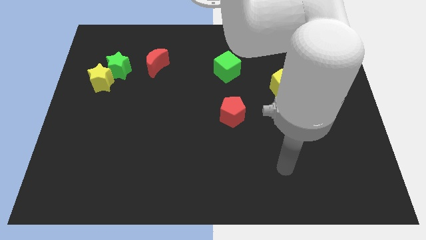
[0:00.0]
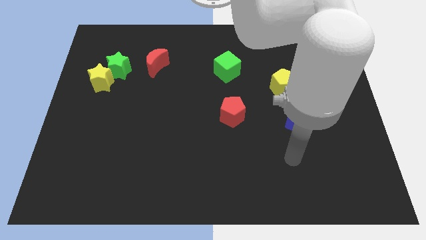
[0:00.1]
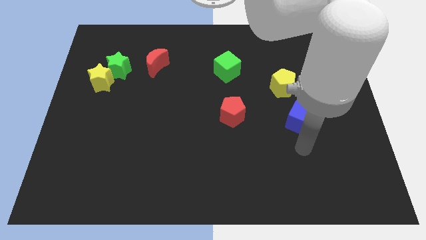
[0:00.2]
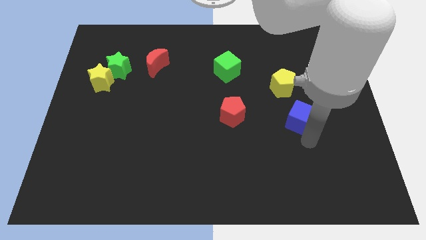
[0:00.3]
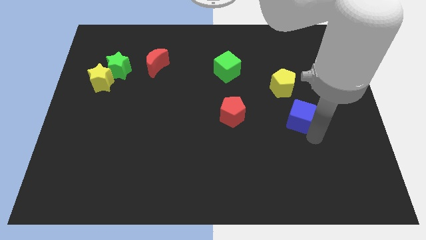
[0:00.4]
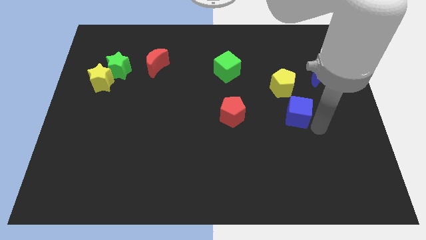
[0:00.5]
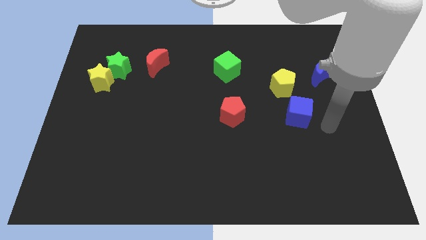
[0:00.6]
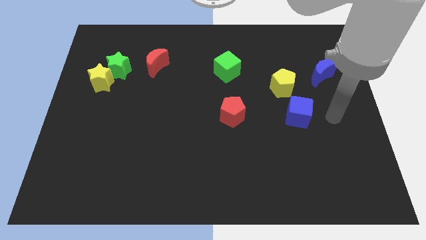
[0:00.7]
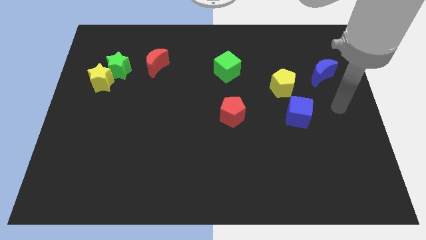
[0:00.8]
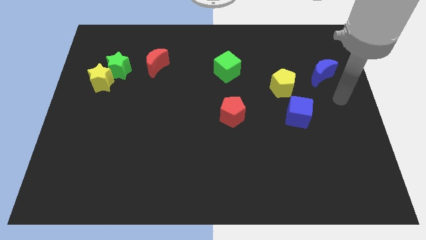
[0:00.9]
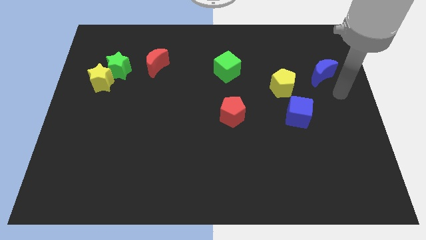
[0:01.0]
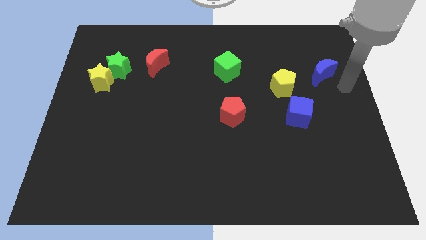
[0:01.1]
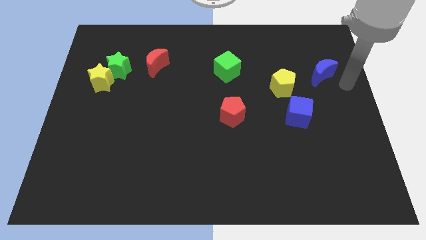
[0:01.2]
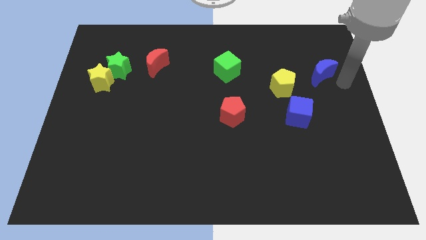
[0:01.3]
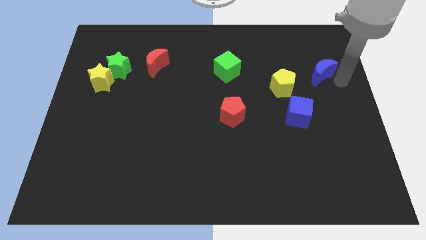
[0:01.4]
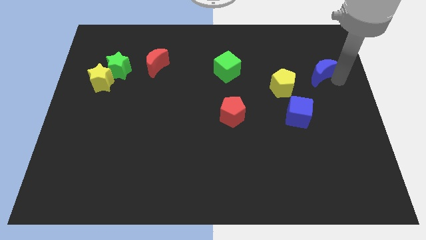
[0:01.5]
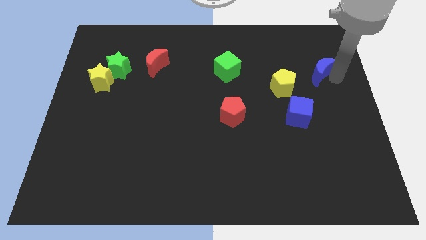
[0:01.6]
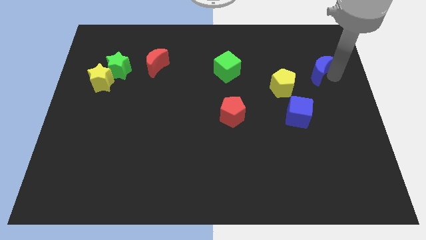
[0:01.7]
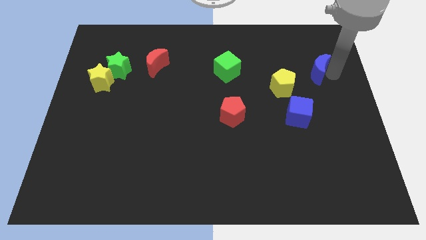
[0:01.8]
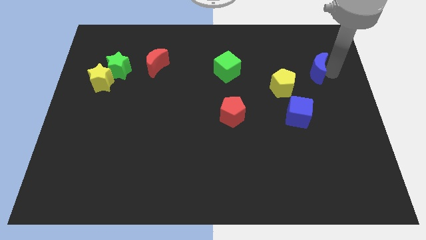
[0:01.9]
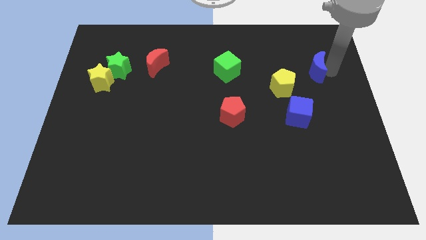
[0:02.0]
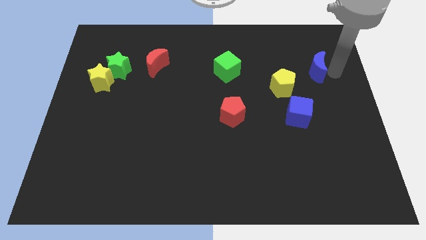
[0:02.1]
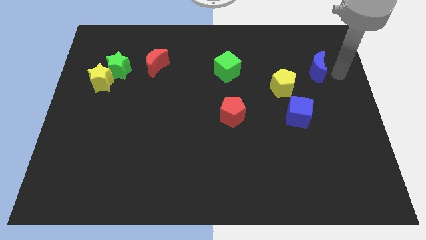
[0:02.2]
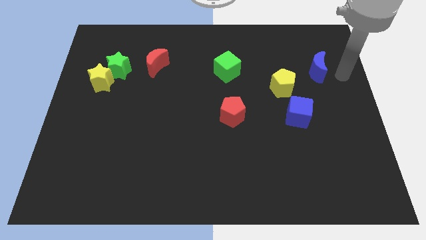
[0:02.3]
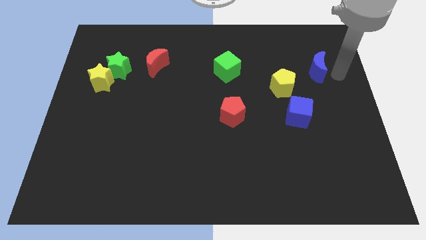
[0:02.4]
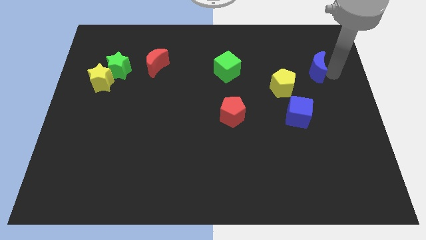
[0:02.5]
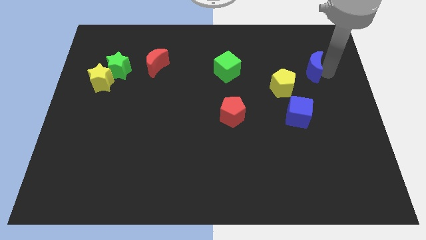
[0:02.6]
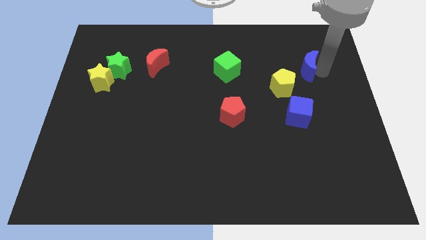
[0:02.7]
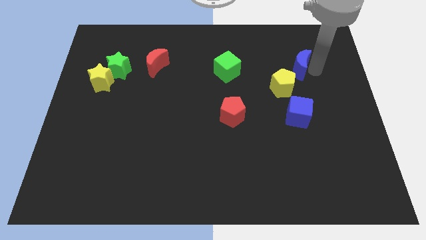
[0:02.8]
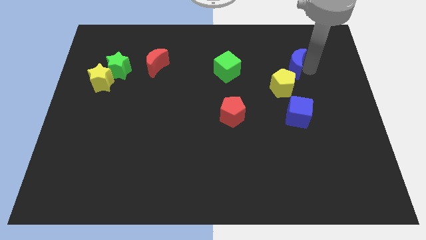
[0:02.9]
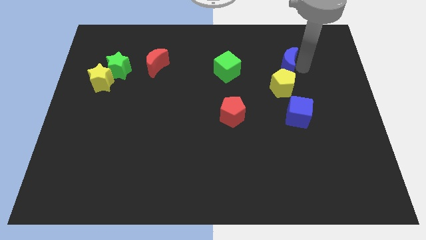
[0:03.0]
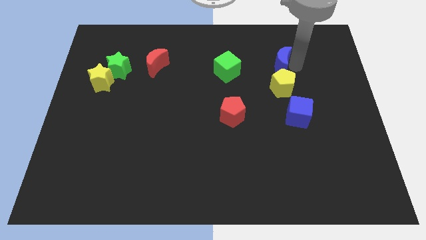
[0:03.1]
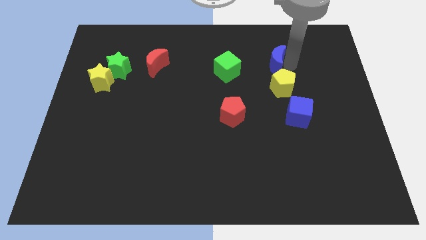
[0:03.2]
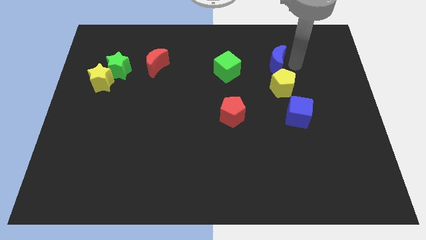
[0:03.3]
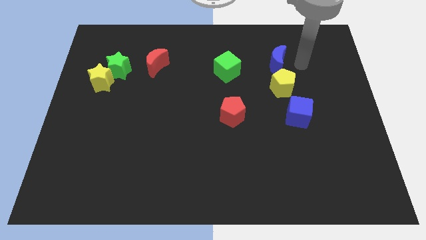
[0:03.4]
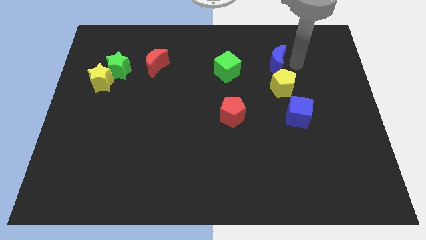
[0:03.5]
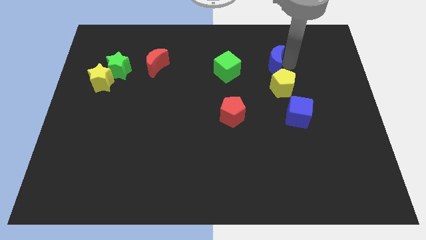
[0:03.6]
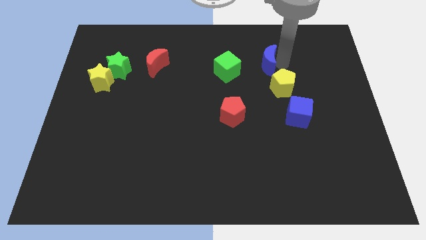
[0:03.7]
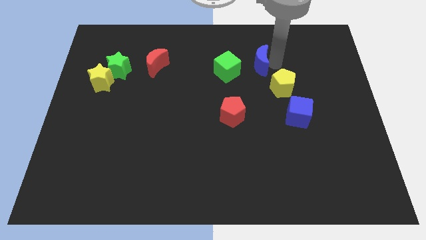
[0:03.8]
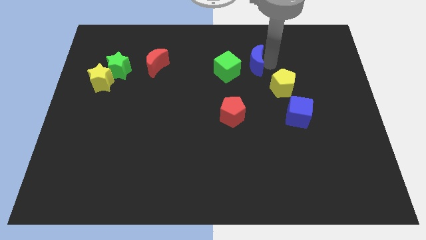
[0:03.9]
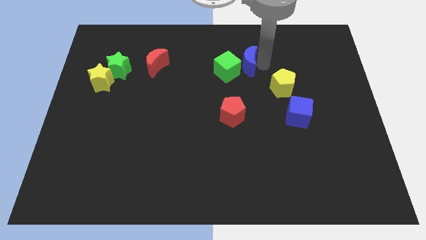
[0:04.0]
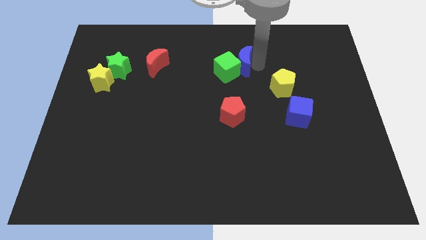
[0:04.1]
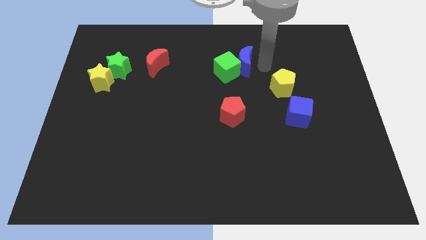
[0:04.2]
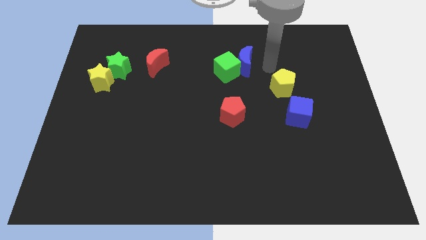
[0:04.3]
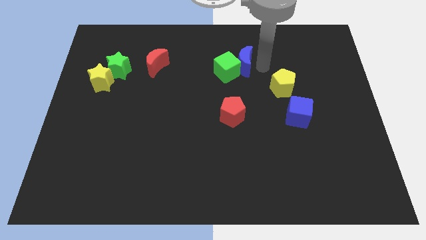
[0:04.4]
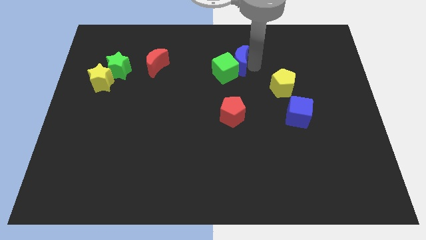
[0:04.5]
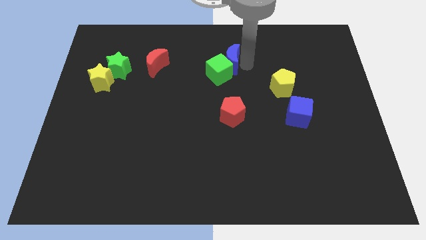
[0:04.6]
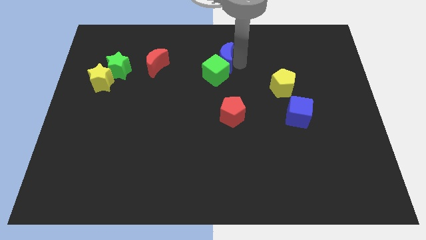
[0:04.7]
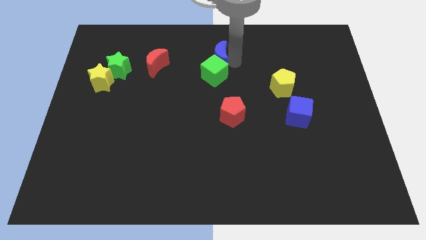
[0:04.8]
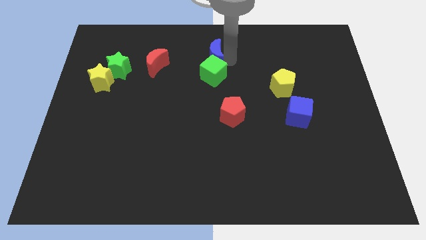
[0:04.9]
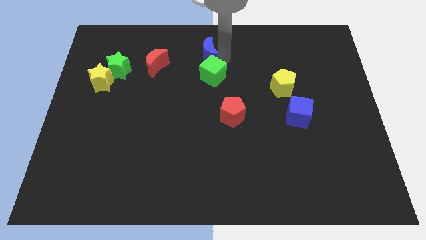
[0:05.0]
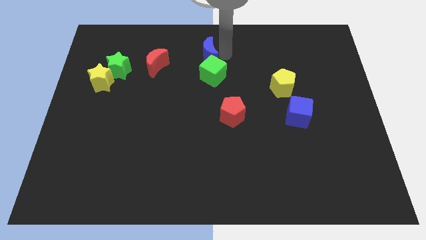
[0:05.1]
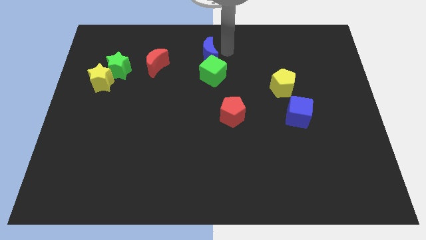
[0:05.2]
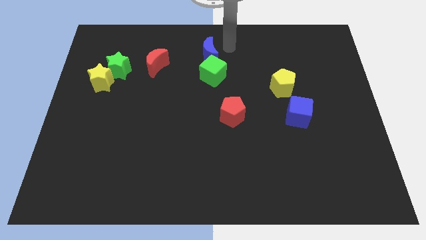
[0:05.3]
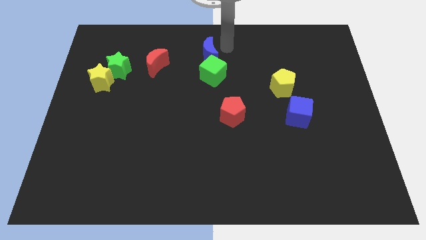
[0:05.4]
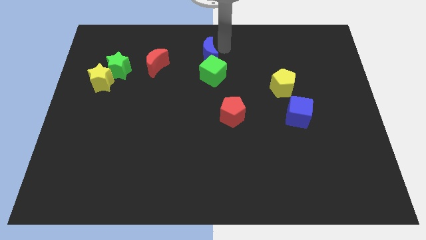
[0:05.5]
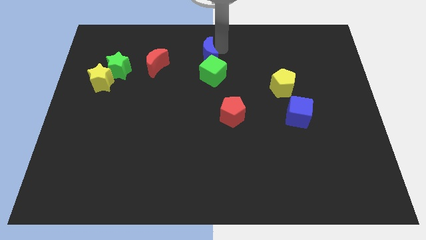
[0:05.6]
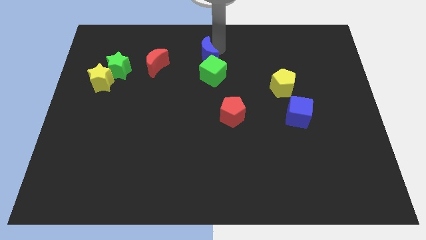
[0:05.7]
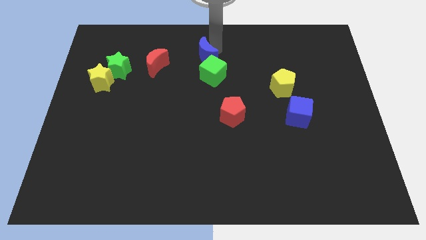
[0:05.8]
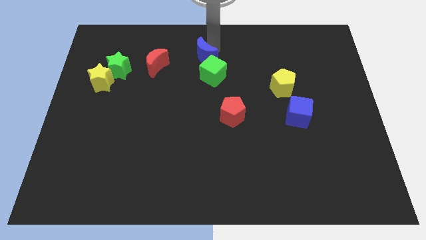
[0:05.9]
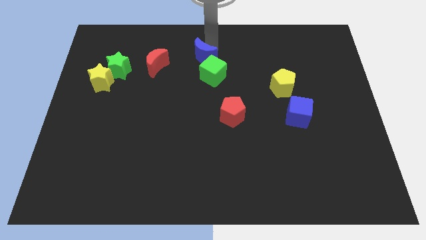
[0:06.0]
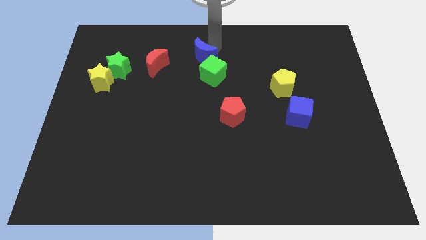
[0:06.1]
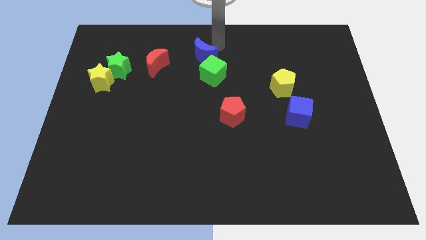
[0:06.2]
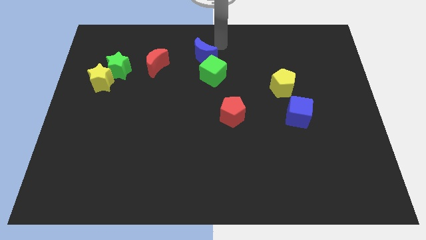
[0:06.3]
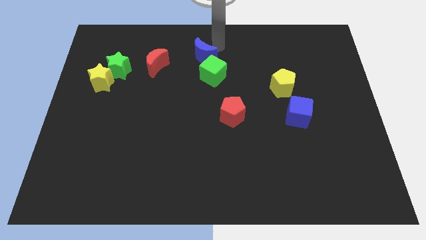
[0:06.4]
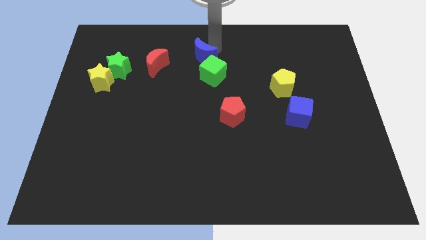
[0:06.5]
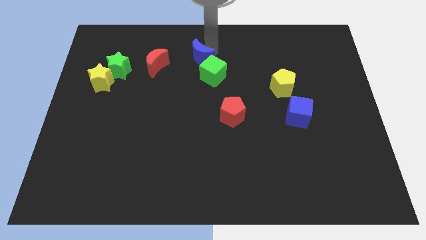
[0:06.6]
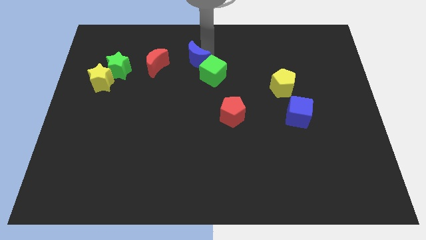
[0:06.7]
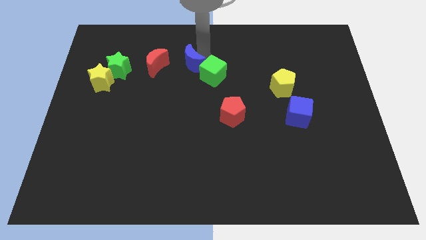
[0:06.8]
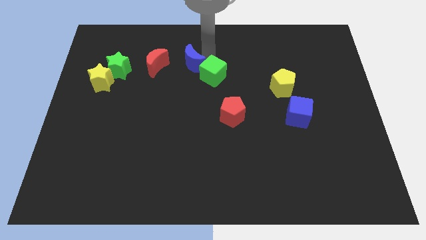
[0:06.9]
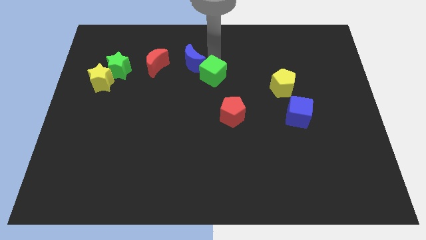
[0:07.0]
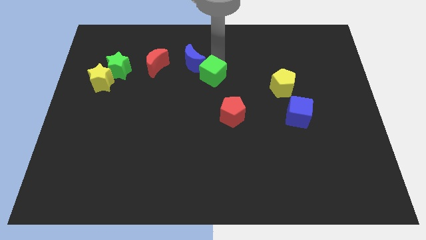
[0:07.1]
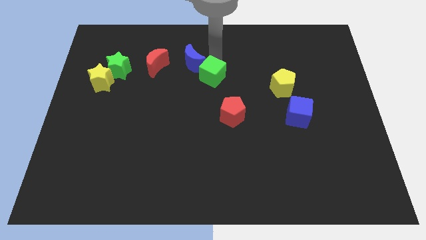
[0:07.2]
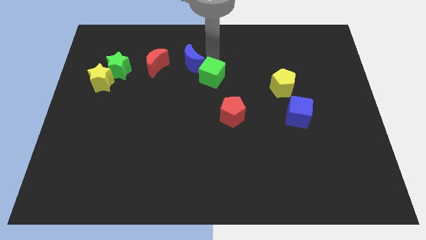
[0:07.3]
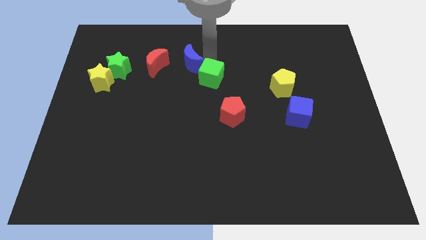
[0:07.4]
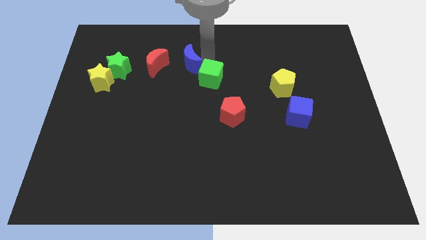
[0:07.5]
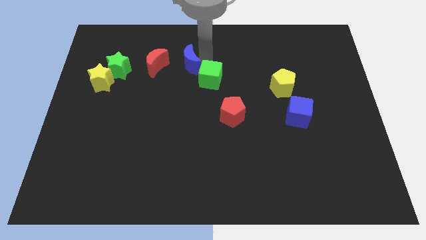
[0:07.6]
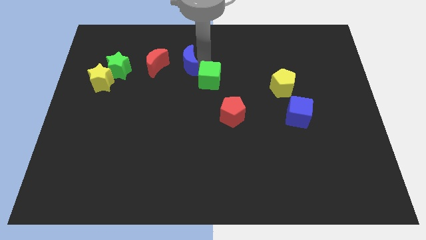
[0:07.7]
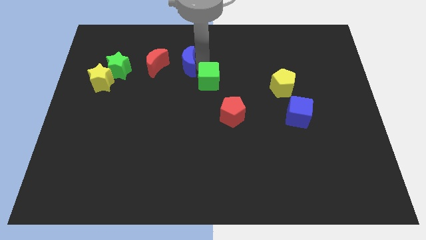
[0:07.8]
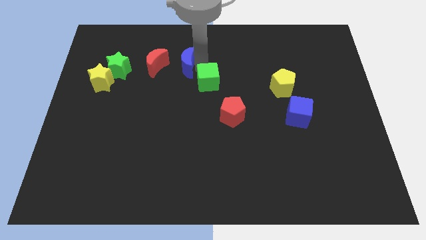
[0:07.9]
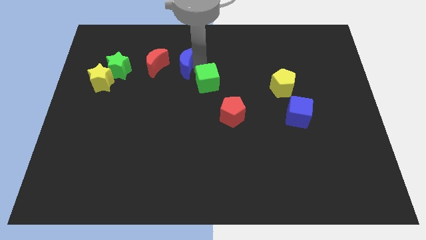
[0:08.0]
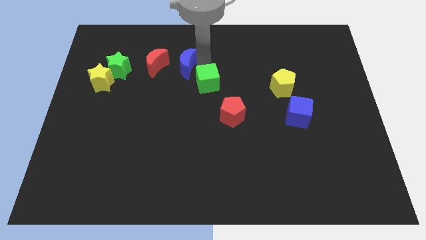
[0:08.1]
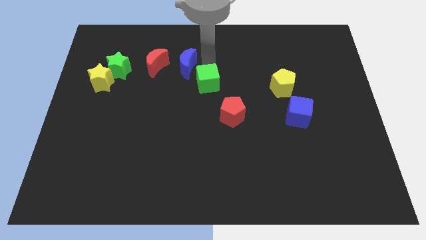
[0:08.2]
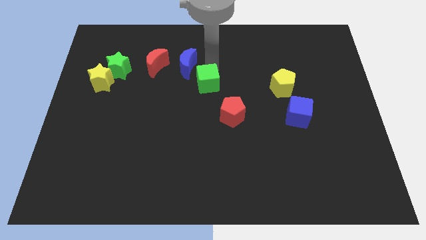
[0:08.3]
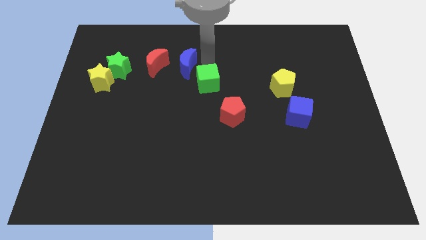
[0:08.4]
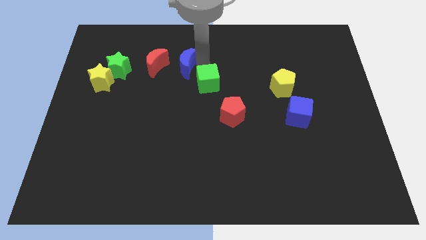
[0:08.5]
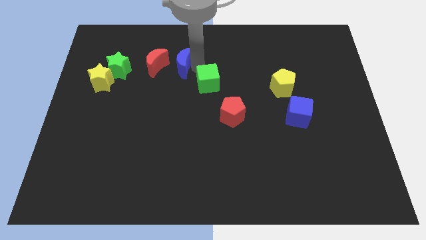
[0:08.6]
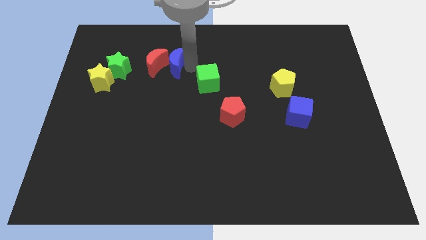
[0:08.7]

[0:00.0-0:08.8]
push the blue moon towards the red moon
